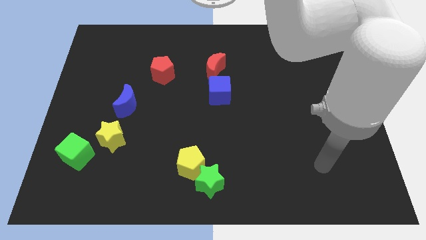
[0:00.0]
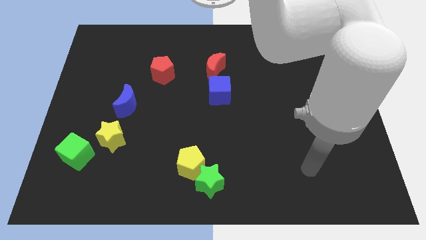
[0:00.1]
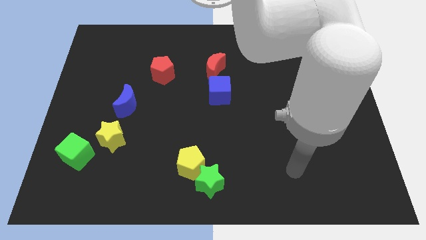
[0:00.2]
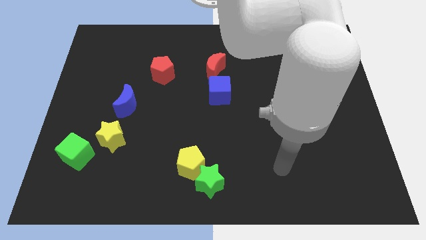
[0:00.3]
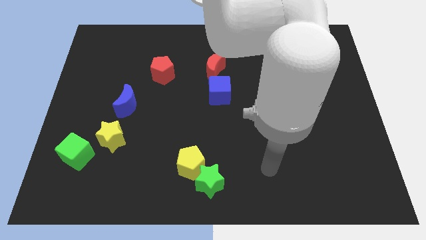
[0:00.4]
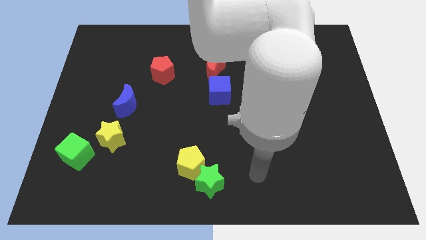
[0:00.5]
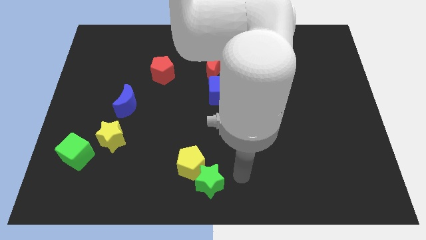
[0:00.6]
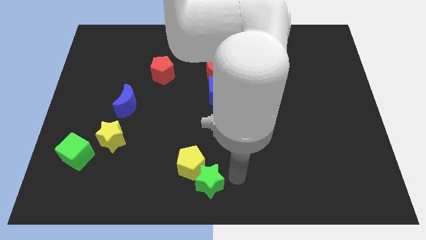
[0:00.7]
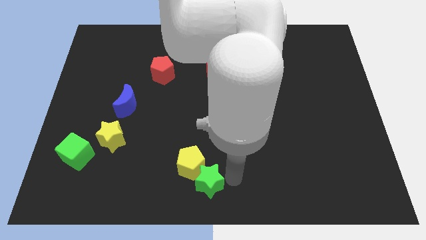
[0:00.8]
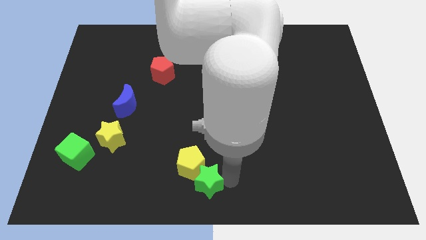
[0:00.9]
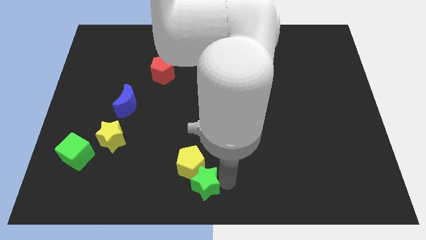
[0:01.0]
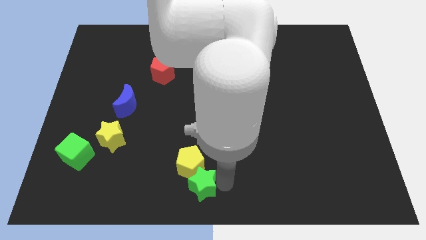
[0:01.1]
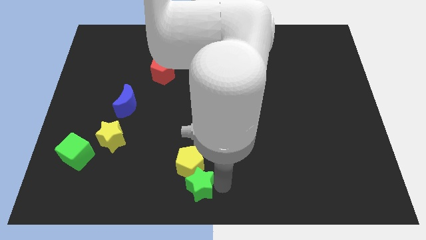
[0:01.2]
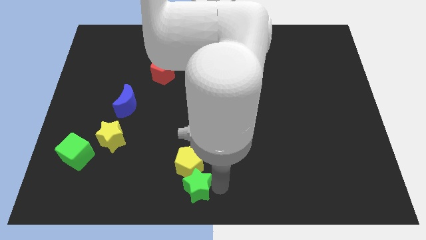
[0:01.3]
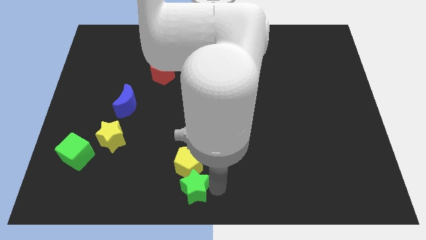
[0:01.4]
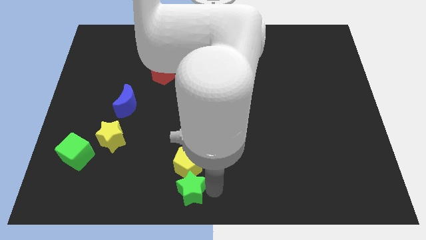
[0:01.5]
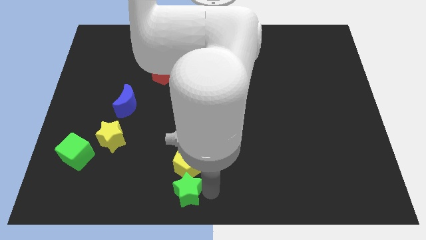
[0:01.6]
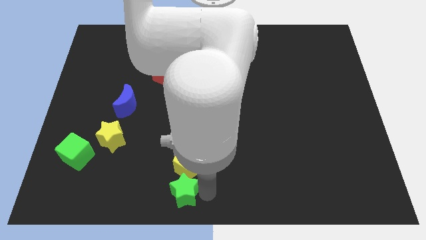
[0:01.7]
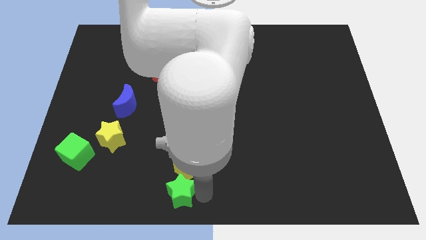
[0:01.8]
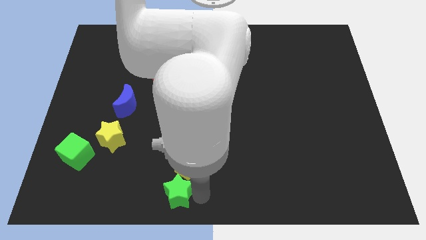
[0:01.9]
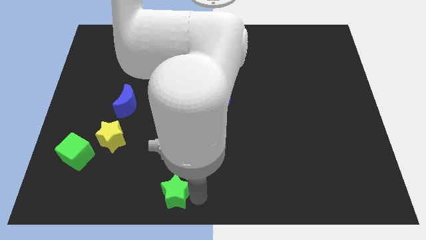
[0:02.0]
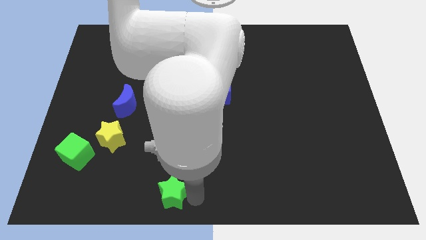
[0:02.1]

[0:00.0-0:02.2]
move the green star to the left a little bit

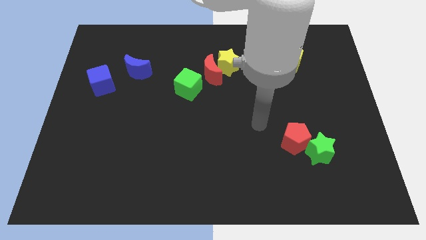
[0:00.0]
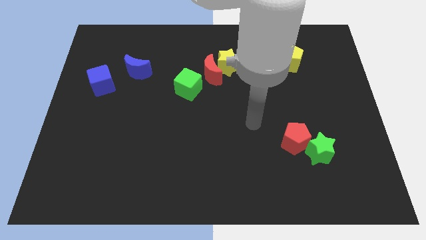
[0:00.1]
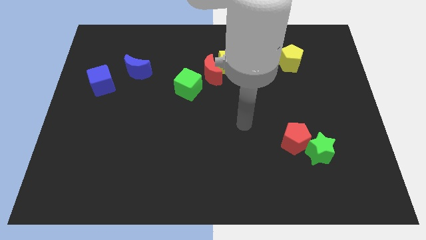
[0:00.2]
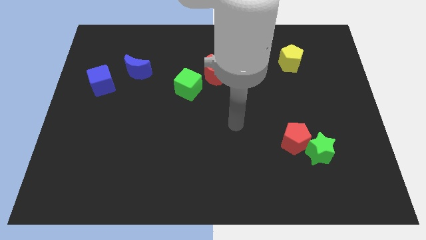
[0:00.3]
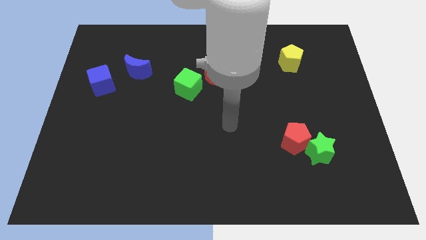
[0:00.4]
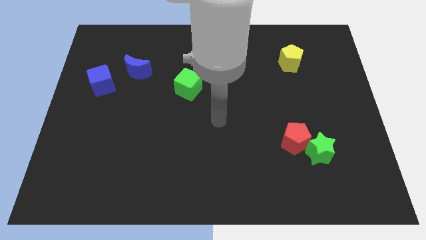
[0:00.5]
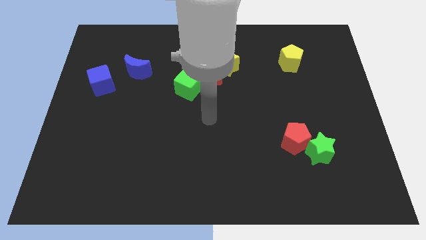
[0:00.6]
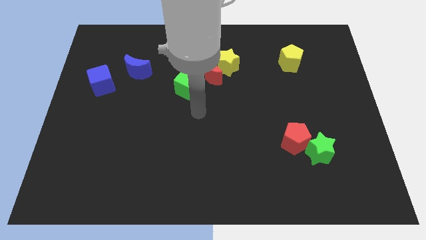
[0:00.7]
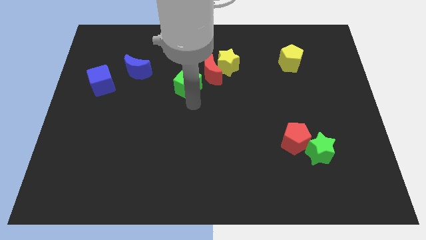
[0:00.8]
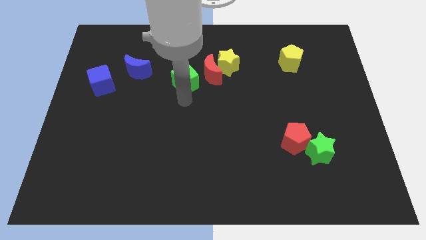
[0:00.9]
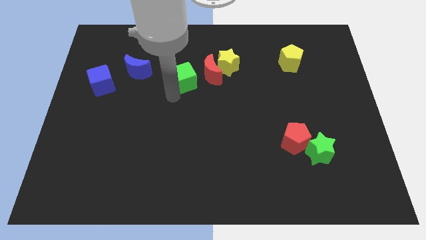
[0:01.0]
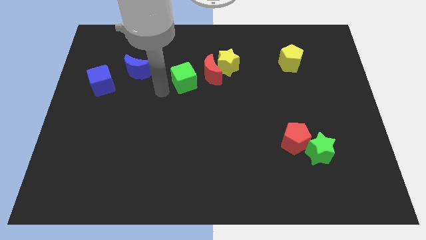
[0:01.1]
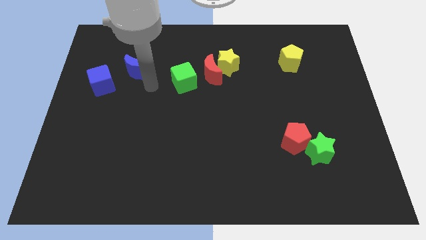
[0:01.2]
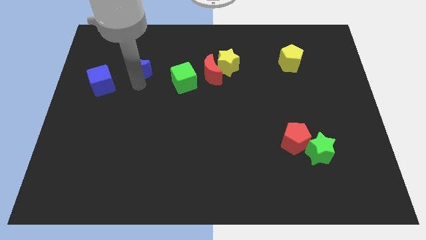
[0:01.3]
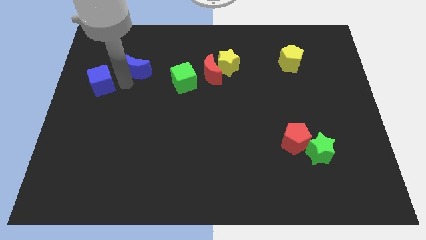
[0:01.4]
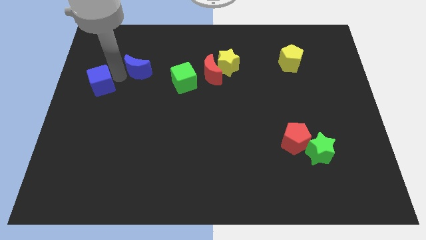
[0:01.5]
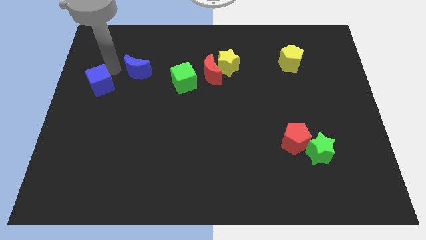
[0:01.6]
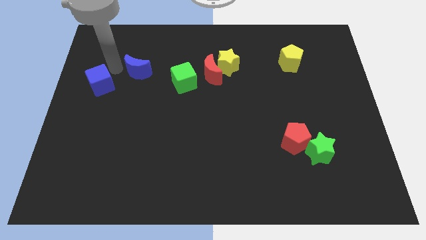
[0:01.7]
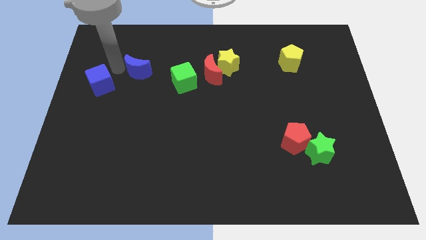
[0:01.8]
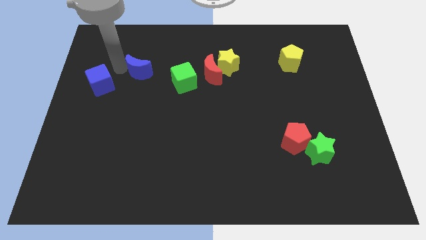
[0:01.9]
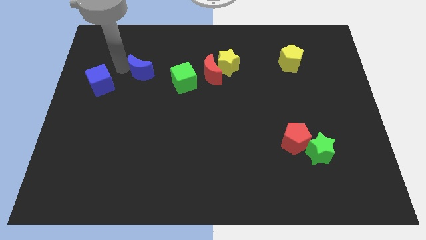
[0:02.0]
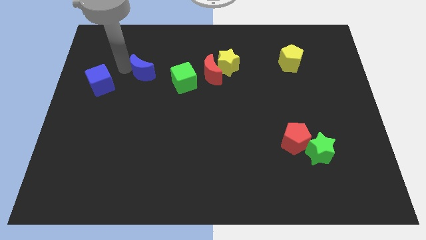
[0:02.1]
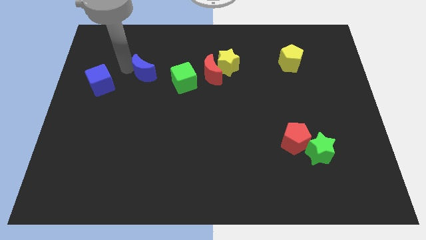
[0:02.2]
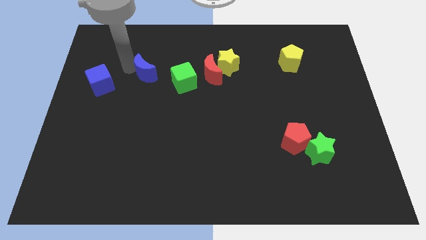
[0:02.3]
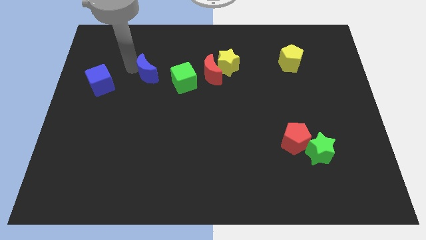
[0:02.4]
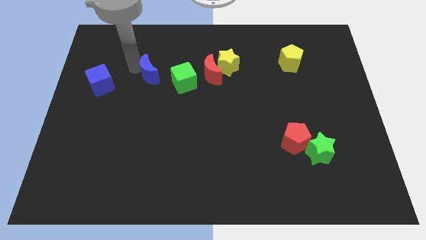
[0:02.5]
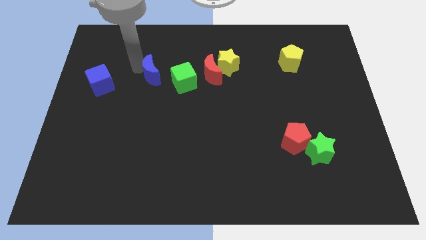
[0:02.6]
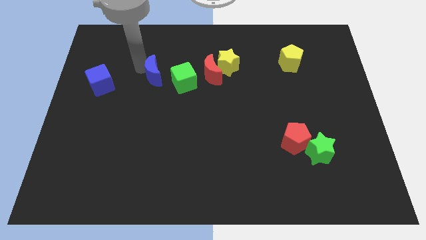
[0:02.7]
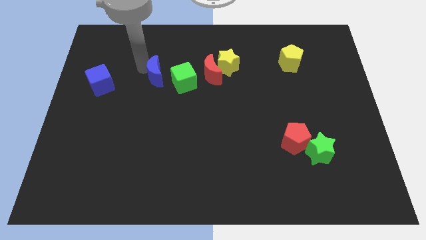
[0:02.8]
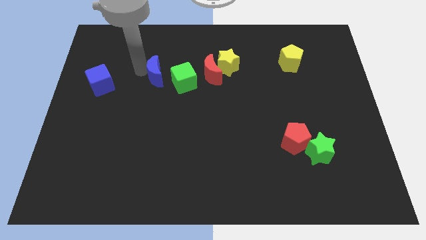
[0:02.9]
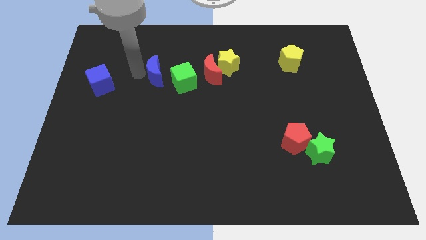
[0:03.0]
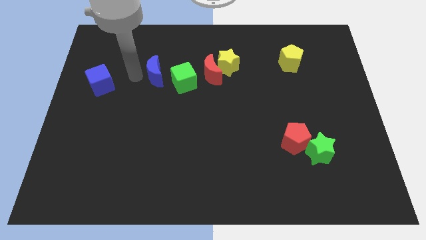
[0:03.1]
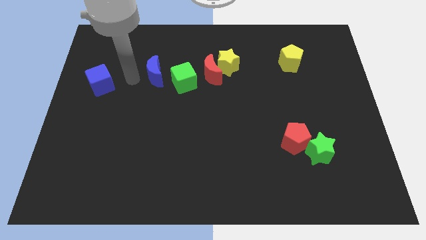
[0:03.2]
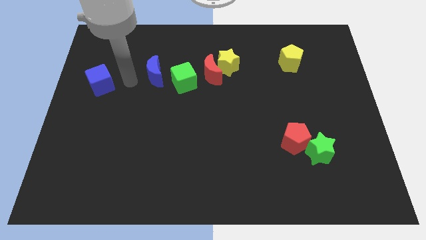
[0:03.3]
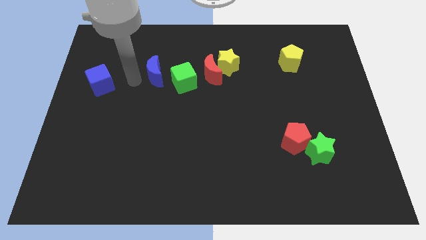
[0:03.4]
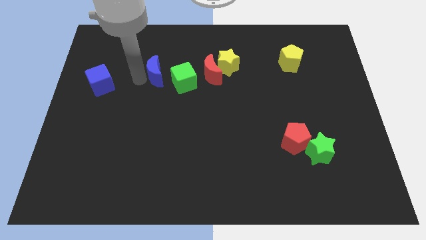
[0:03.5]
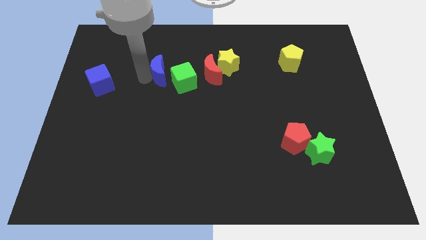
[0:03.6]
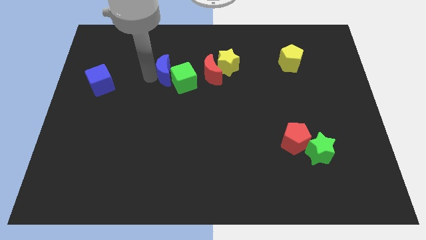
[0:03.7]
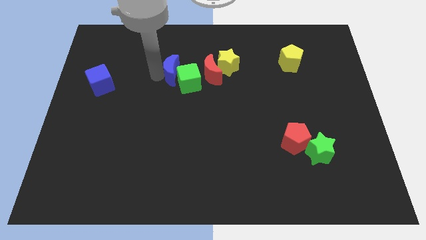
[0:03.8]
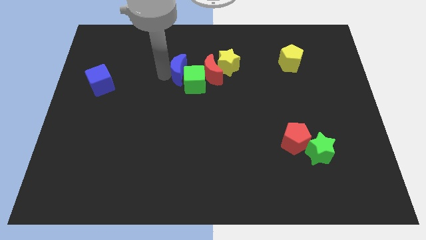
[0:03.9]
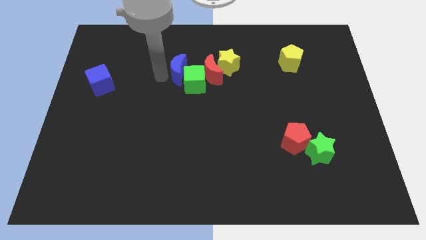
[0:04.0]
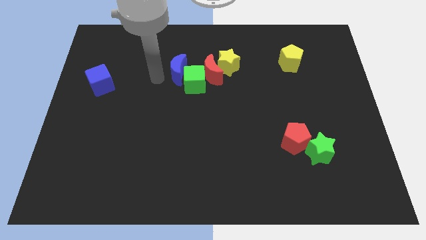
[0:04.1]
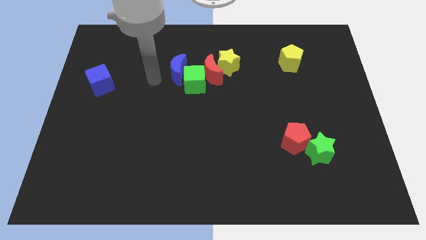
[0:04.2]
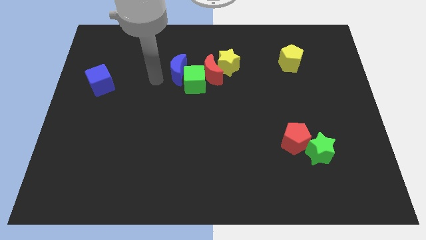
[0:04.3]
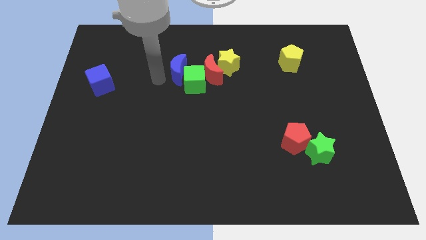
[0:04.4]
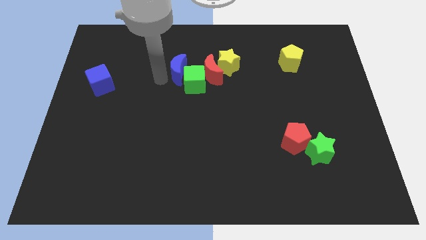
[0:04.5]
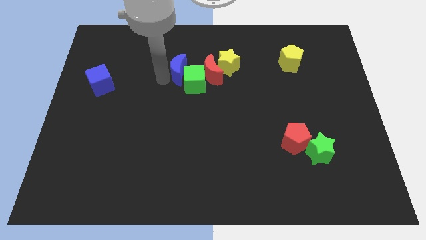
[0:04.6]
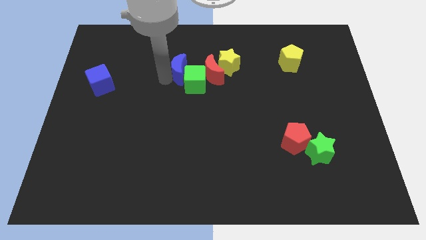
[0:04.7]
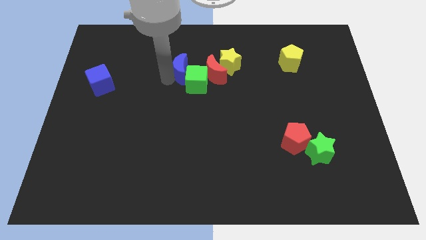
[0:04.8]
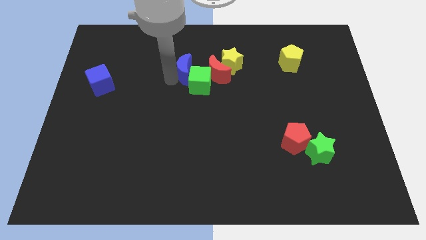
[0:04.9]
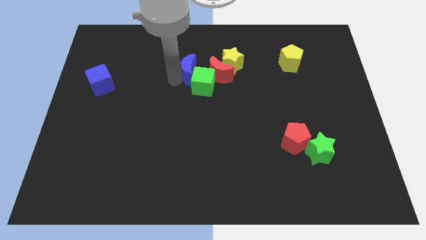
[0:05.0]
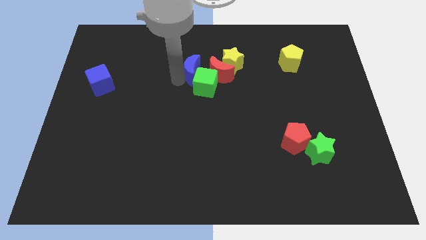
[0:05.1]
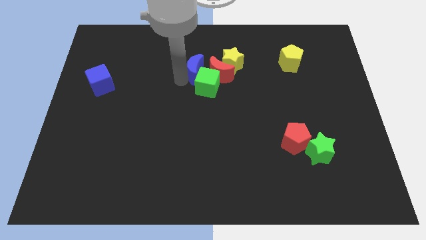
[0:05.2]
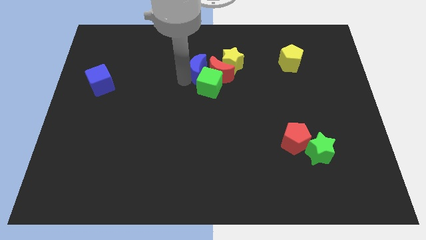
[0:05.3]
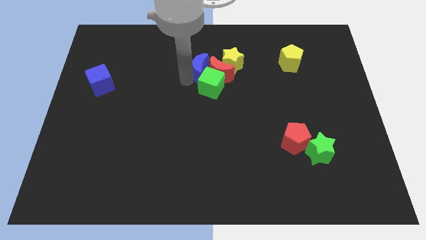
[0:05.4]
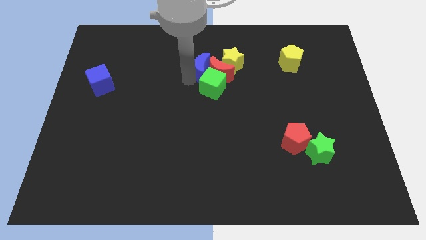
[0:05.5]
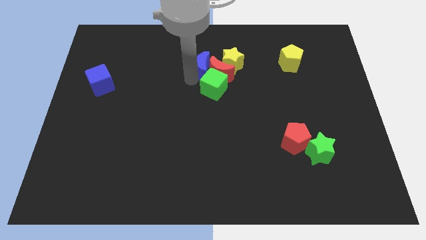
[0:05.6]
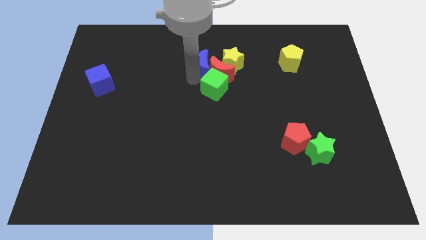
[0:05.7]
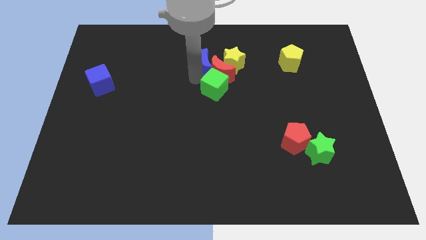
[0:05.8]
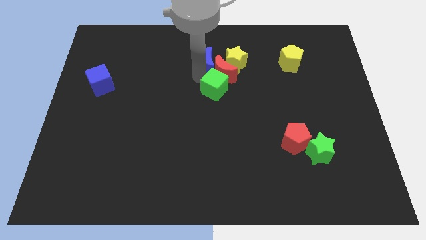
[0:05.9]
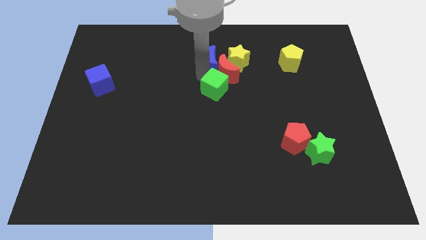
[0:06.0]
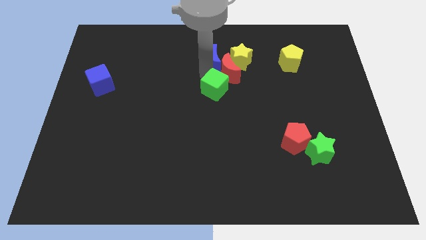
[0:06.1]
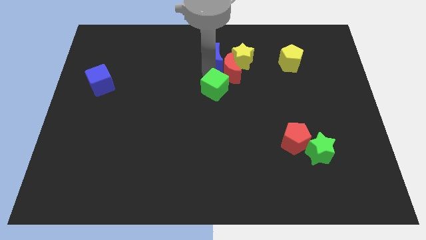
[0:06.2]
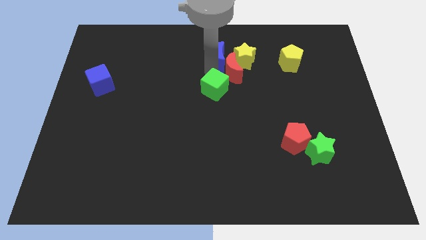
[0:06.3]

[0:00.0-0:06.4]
push the blue moon right
